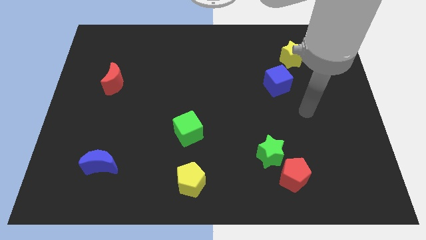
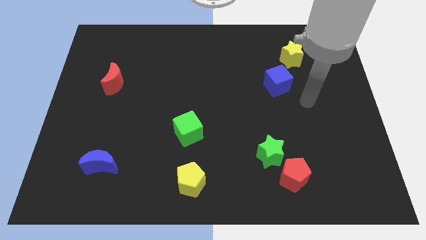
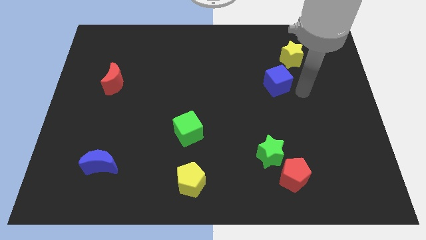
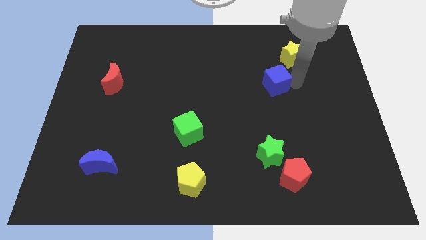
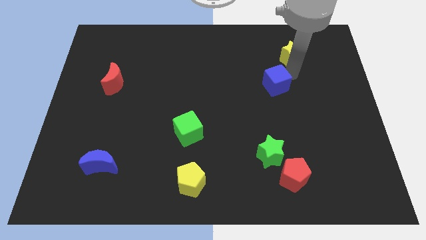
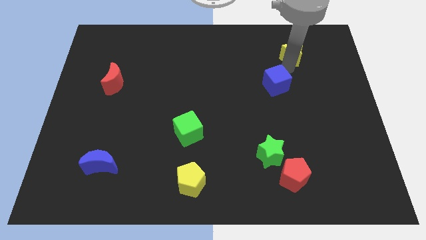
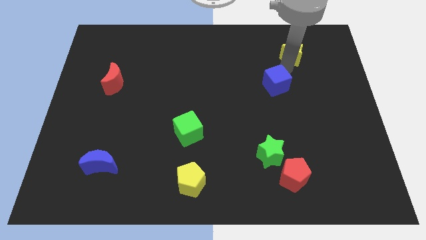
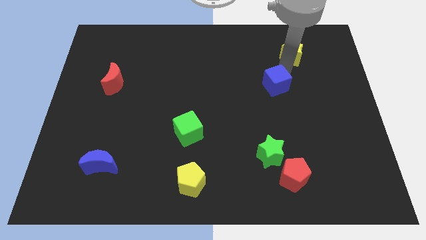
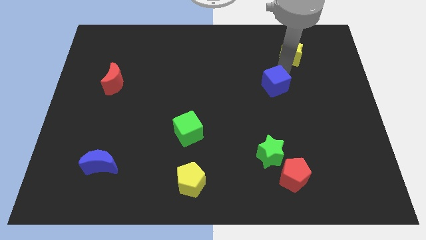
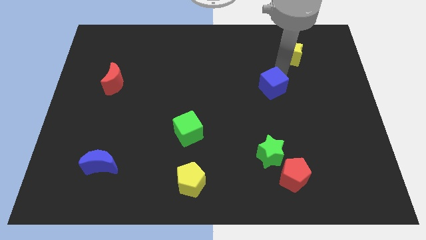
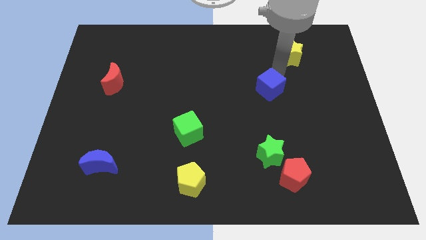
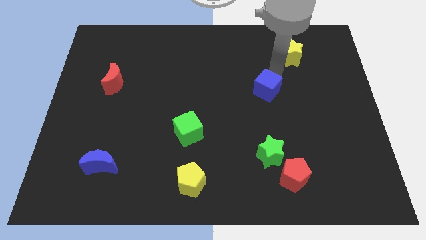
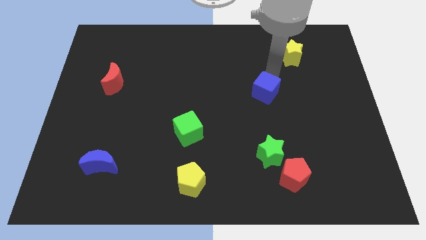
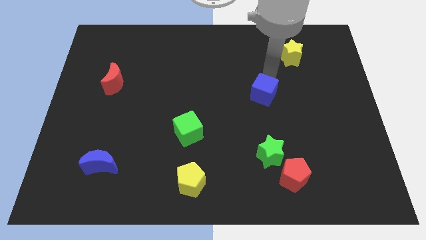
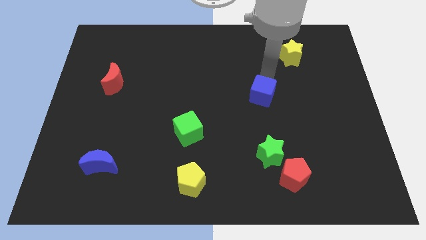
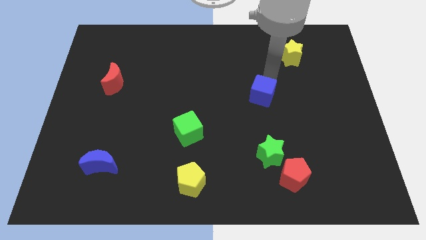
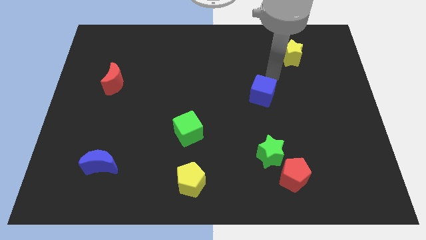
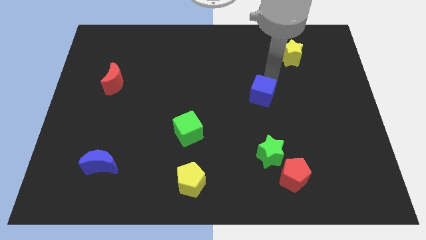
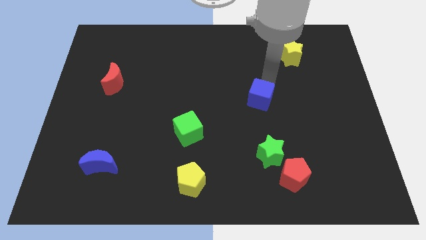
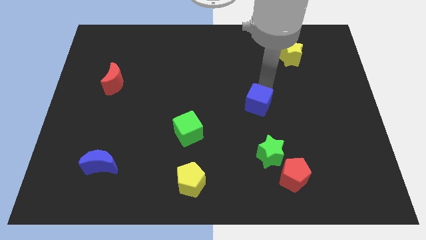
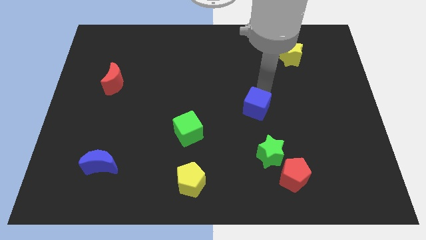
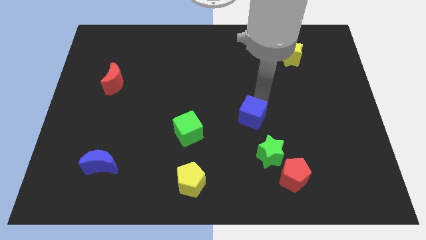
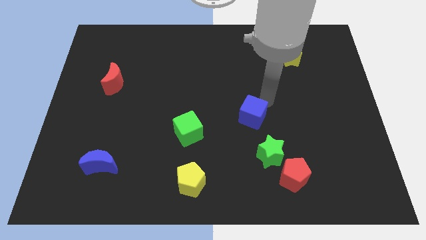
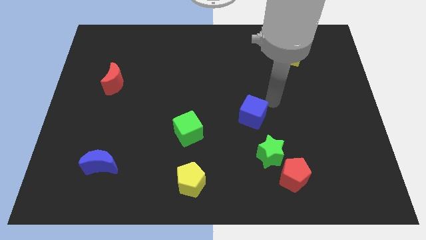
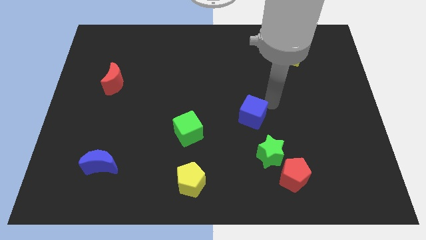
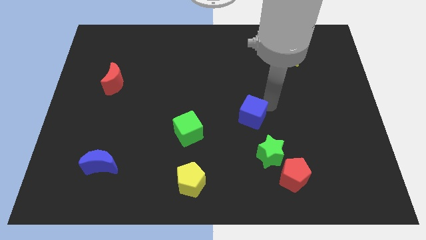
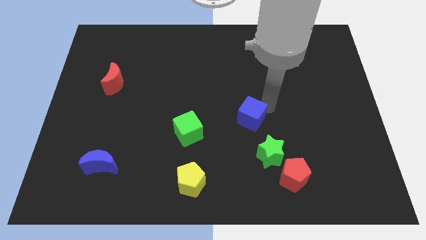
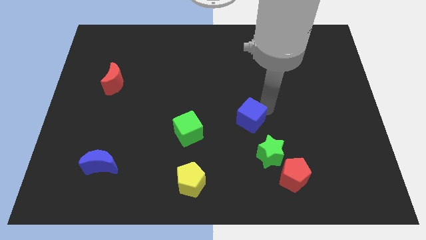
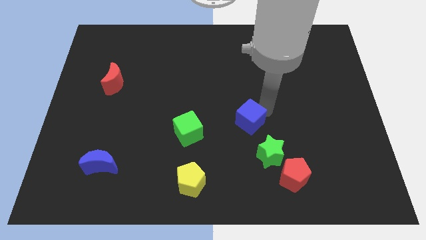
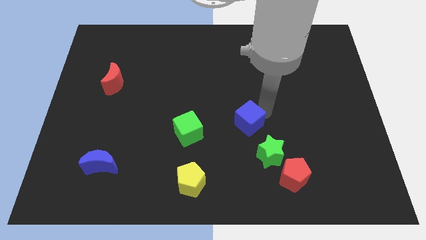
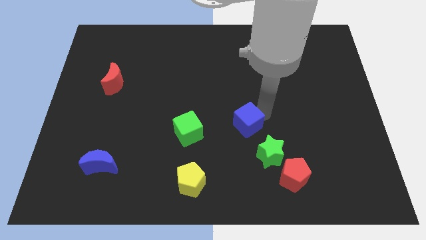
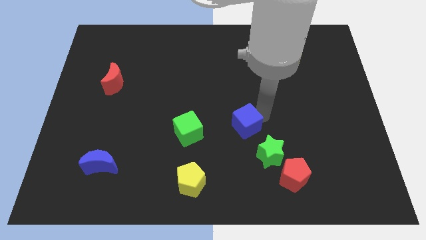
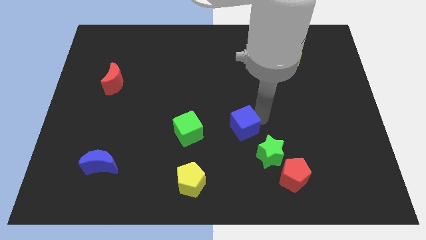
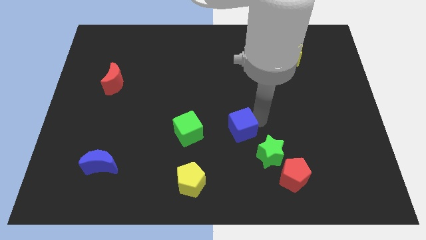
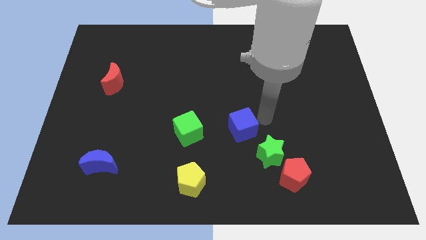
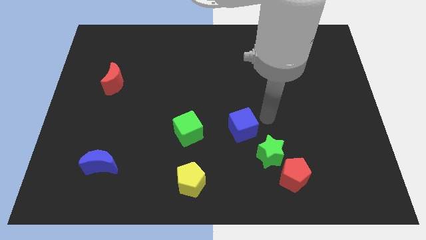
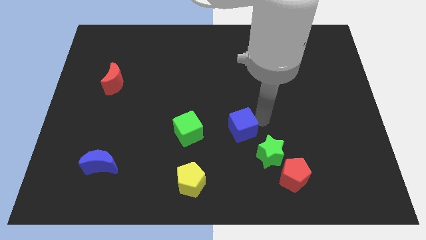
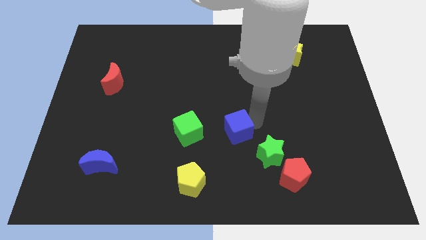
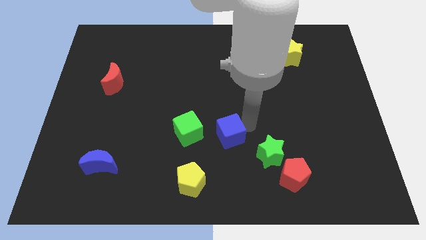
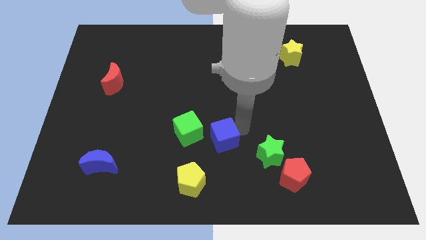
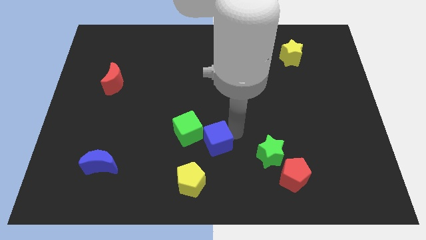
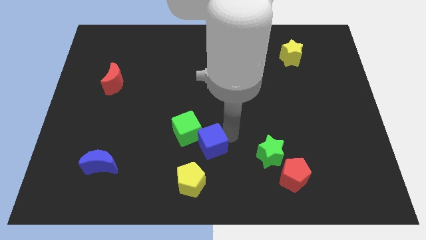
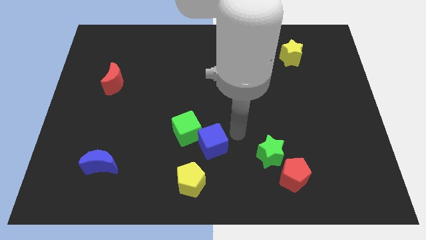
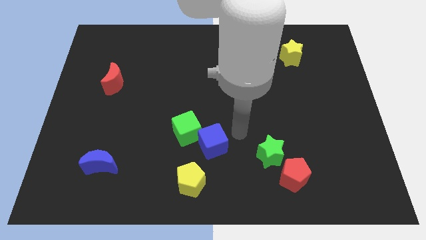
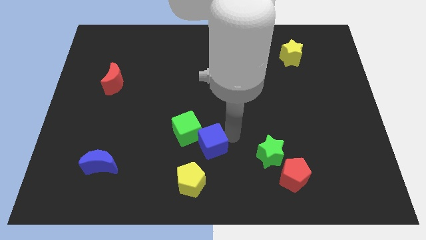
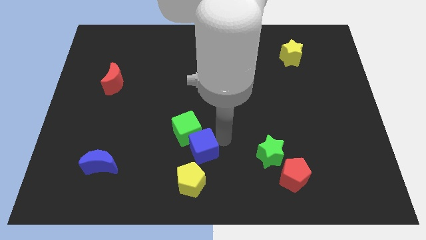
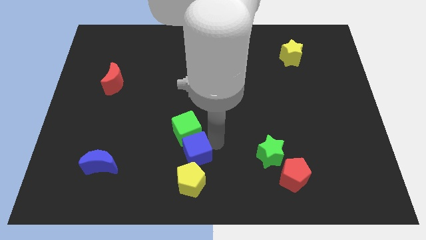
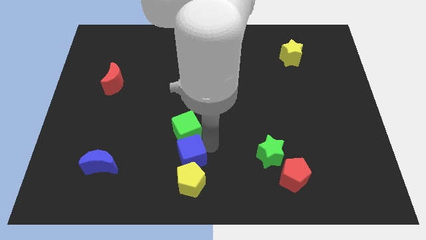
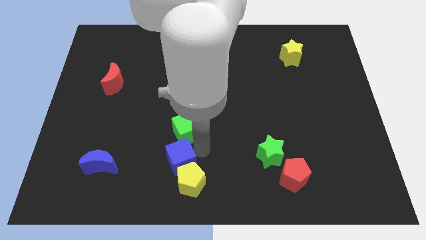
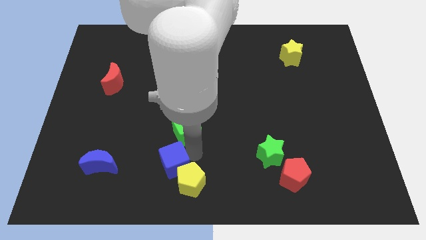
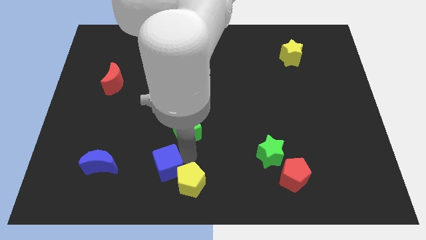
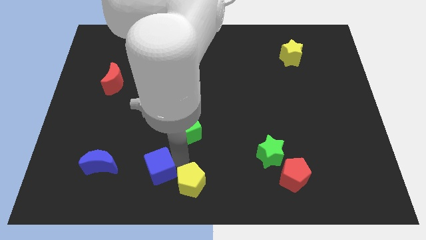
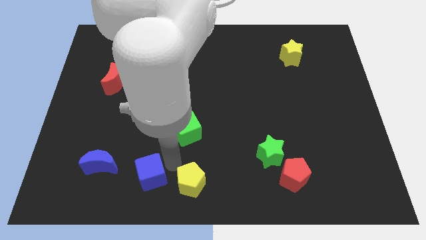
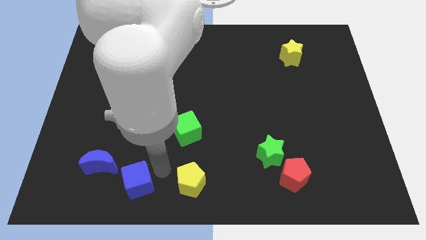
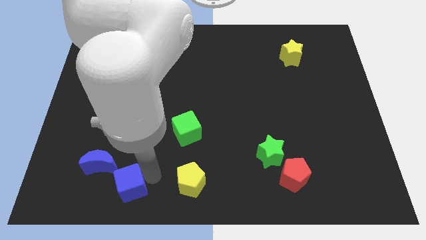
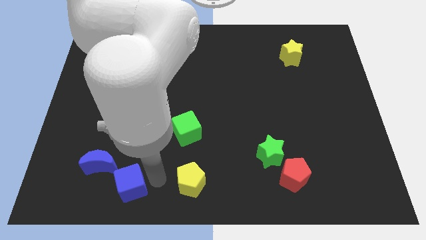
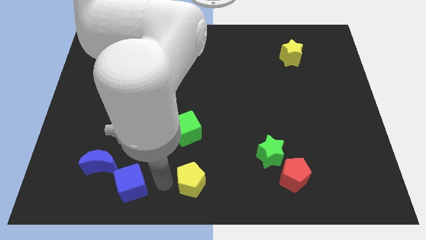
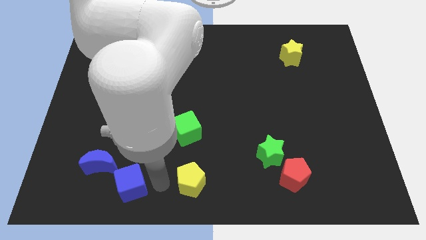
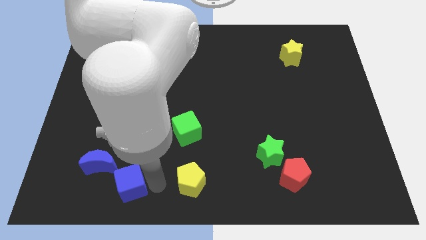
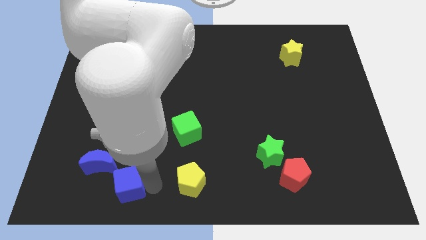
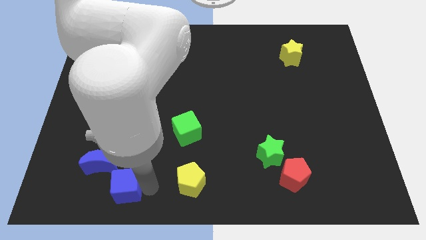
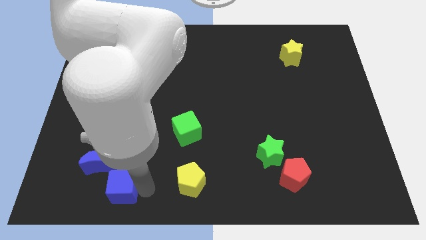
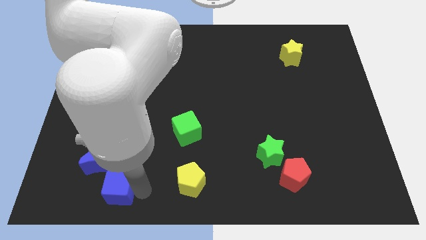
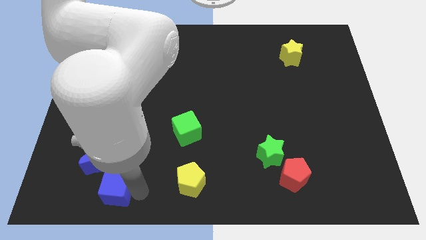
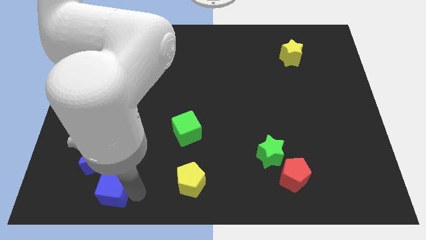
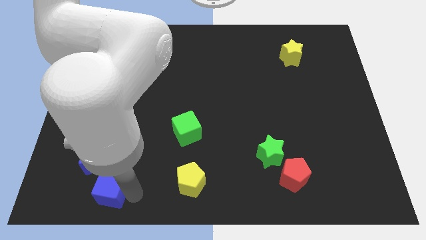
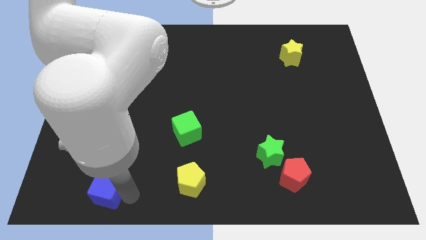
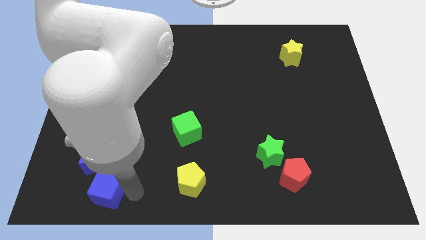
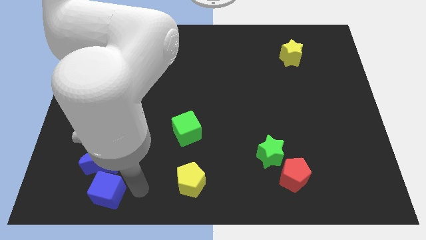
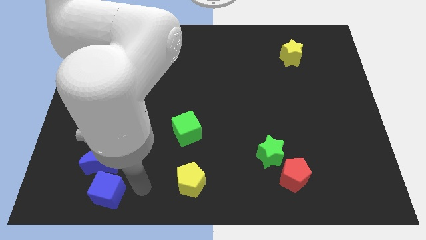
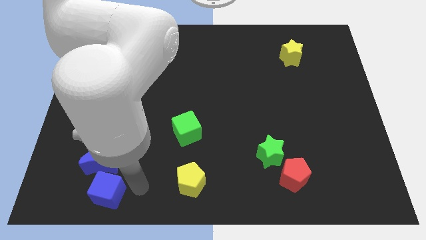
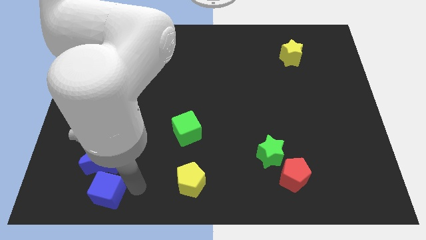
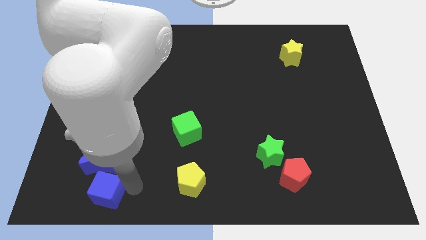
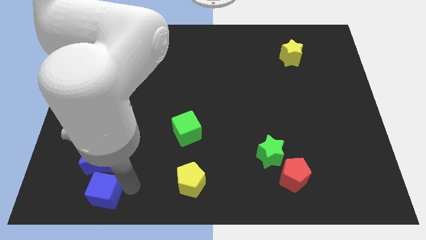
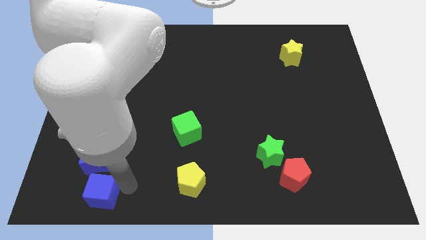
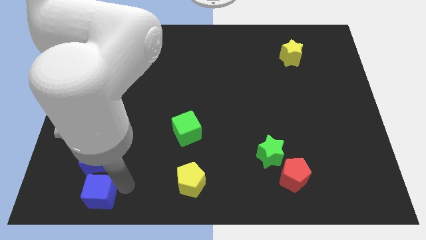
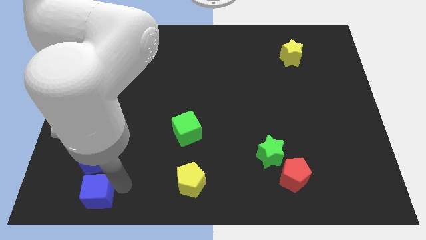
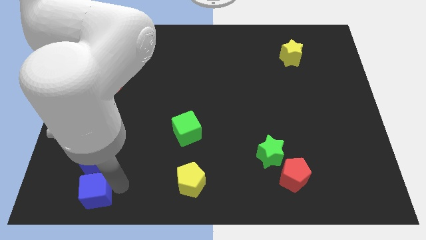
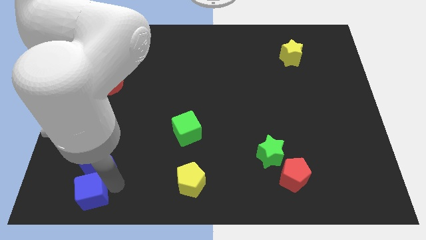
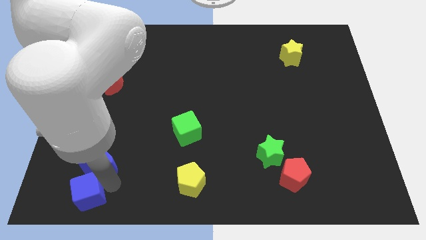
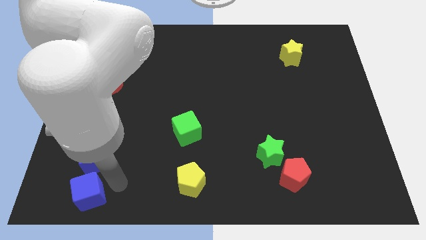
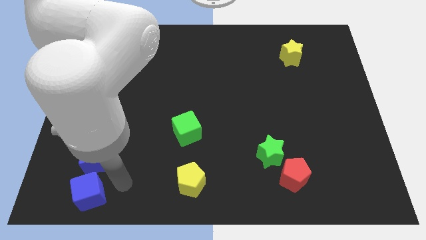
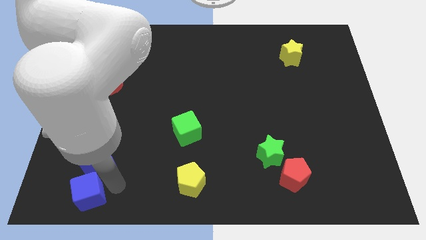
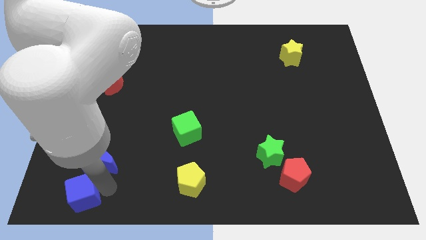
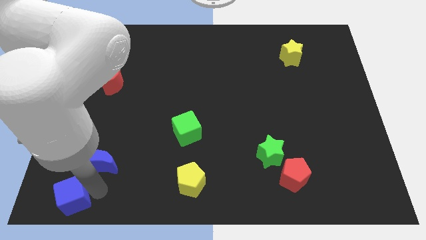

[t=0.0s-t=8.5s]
put the blue cube to the bottom left corner
